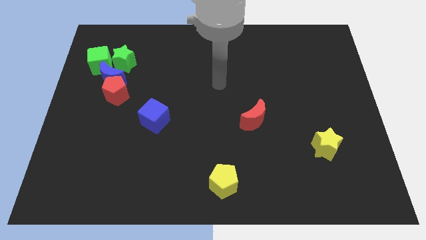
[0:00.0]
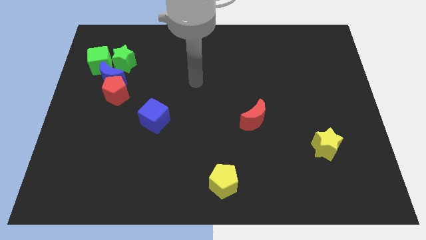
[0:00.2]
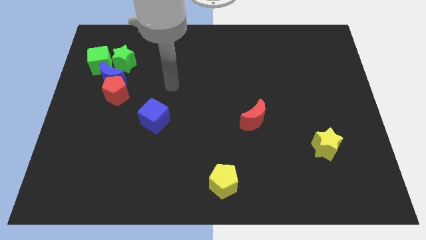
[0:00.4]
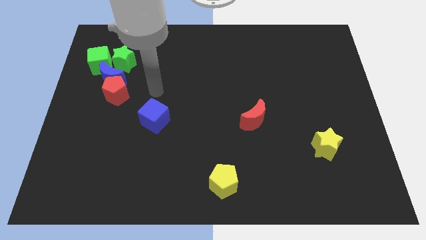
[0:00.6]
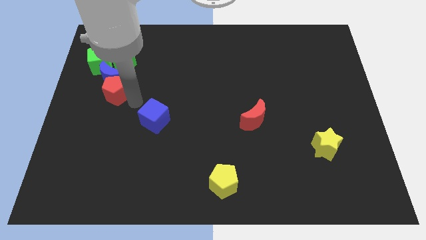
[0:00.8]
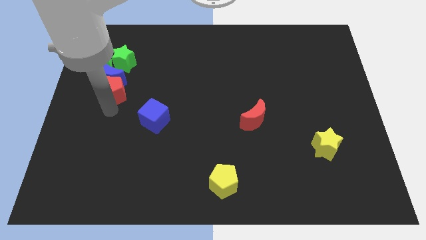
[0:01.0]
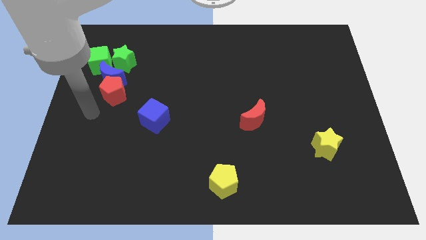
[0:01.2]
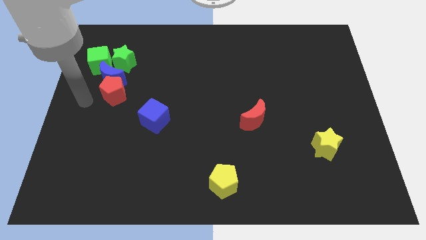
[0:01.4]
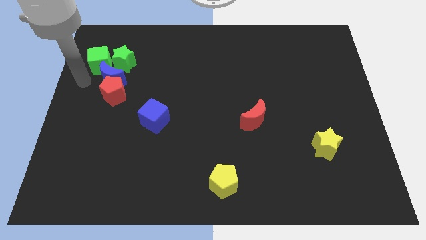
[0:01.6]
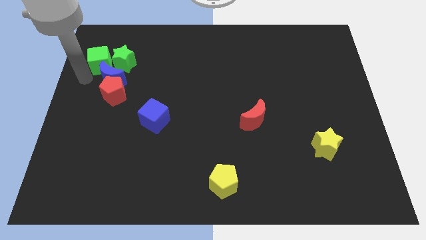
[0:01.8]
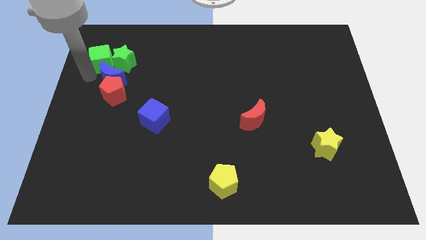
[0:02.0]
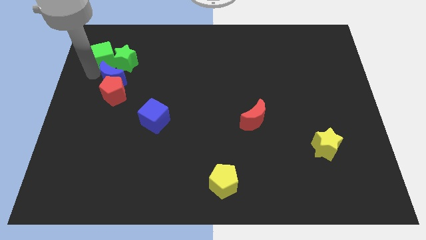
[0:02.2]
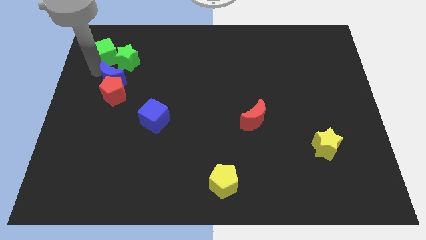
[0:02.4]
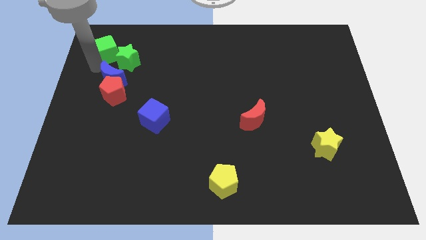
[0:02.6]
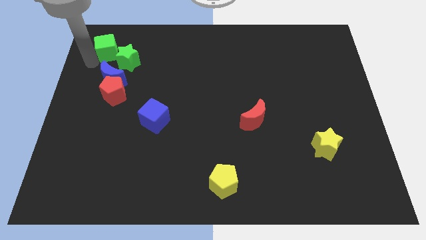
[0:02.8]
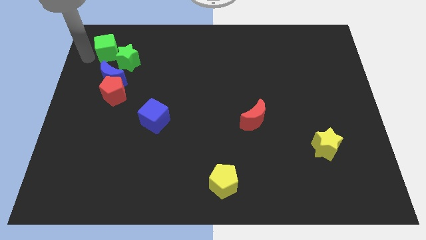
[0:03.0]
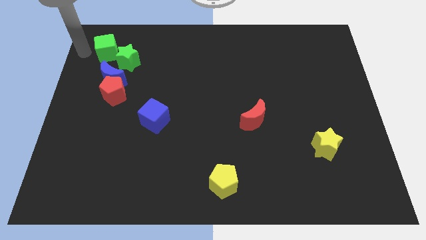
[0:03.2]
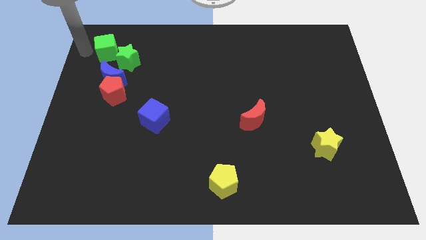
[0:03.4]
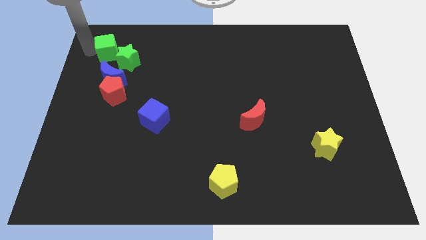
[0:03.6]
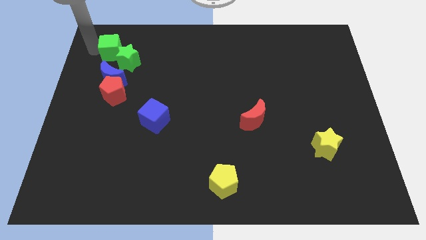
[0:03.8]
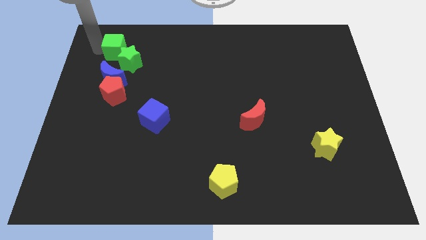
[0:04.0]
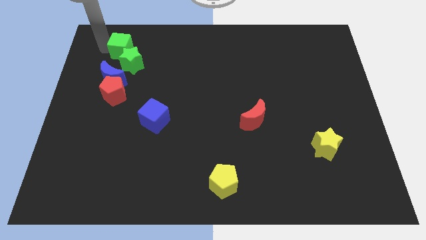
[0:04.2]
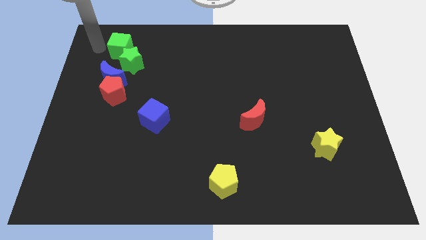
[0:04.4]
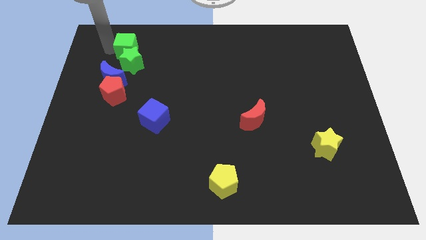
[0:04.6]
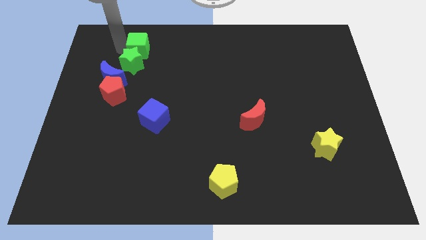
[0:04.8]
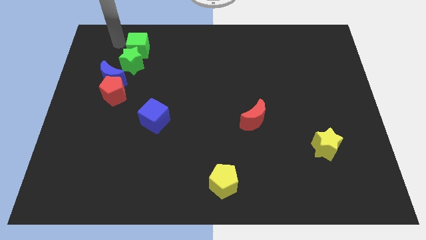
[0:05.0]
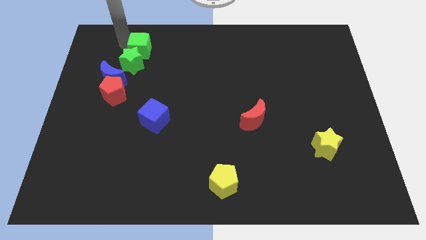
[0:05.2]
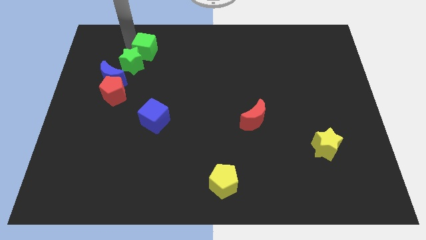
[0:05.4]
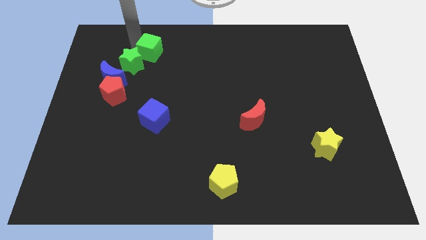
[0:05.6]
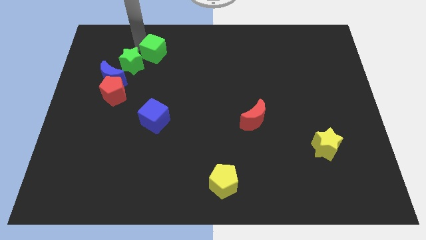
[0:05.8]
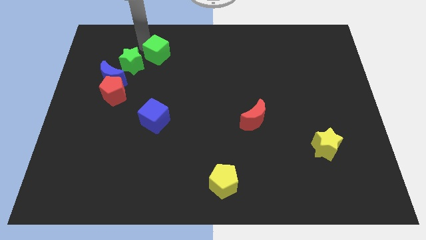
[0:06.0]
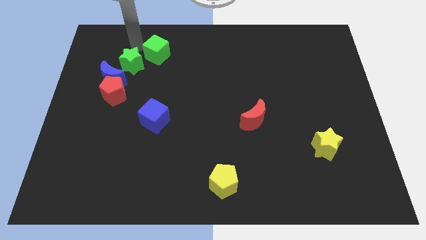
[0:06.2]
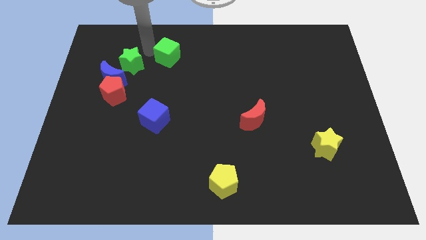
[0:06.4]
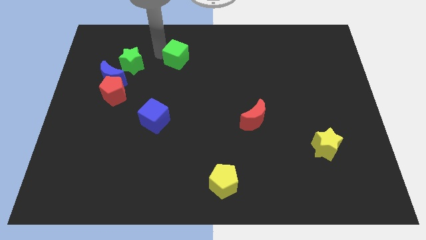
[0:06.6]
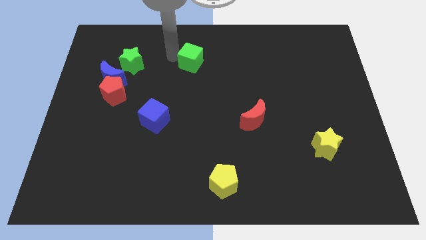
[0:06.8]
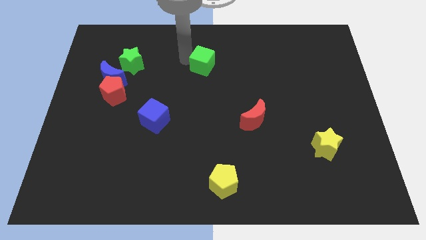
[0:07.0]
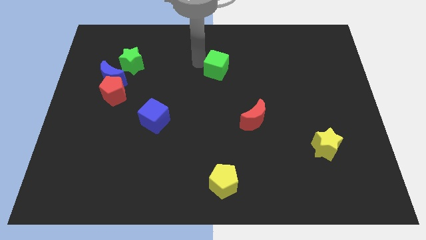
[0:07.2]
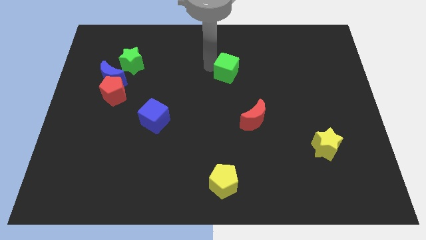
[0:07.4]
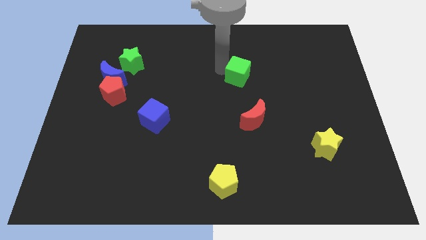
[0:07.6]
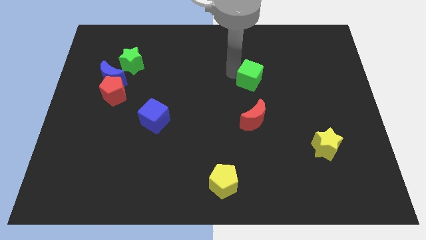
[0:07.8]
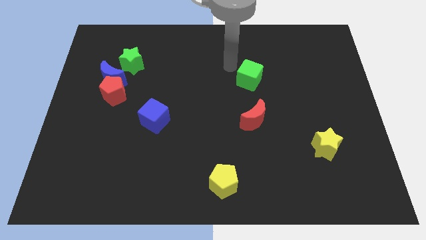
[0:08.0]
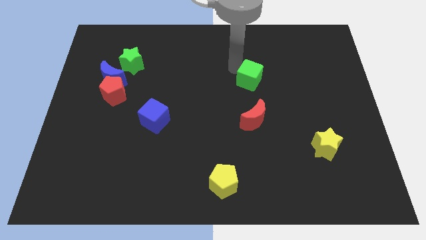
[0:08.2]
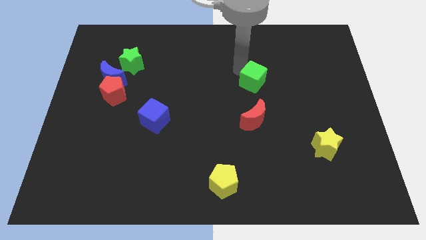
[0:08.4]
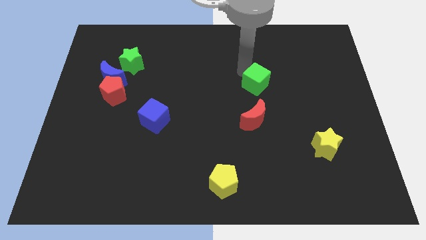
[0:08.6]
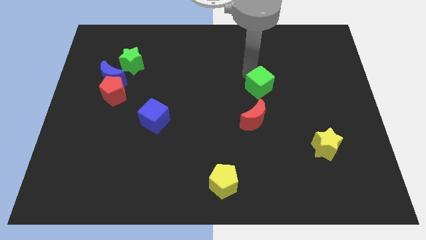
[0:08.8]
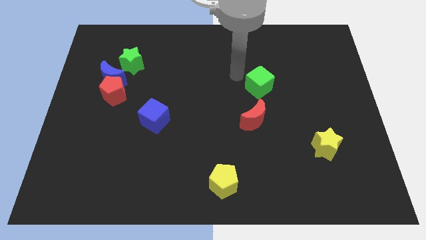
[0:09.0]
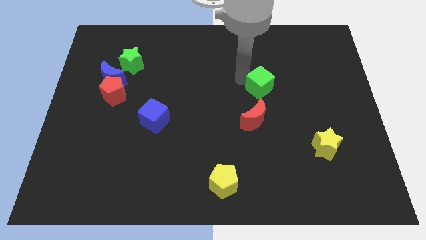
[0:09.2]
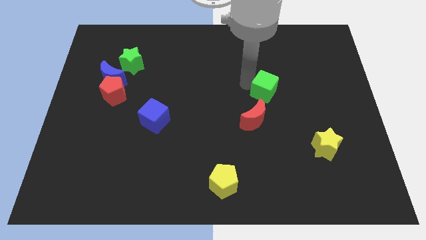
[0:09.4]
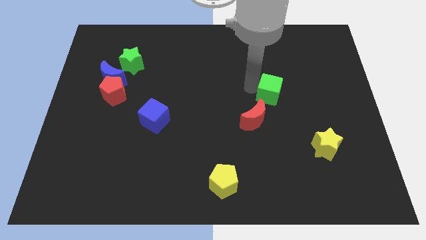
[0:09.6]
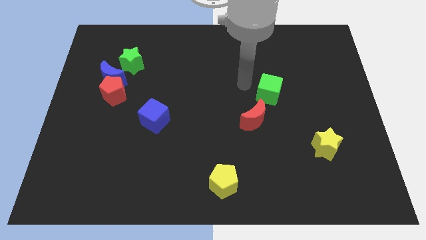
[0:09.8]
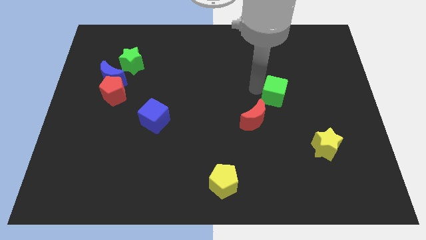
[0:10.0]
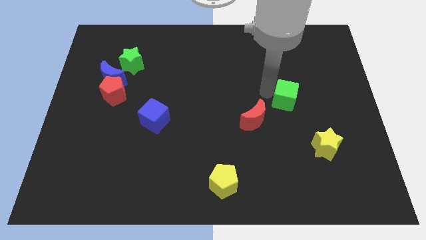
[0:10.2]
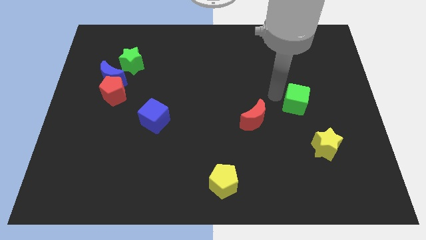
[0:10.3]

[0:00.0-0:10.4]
put the green cube to the top of the yellow star
